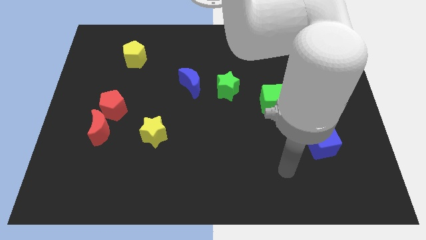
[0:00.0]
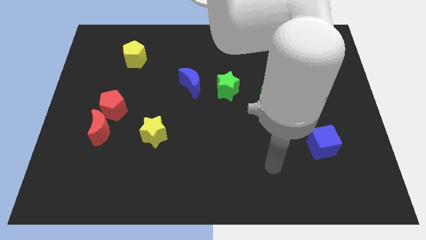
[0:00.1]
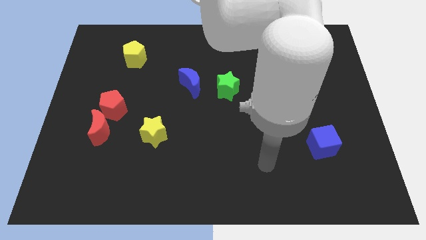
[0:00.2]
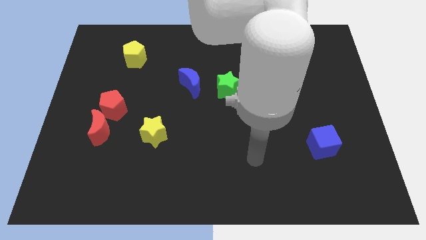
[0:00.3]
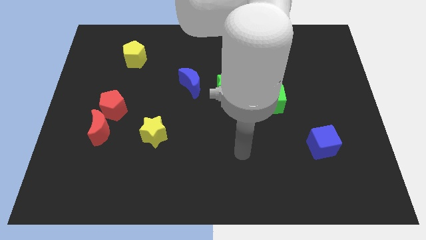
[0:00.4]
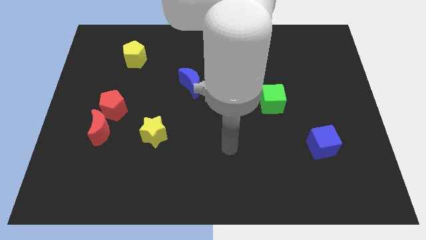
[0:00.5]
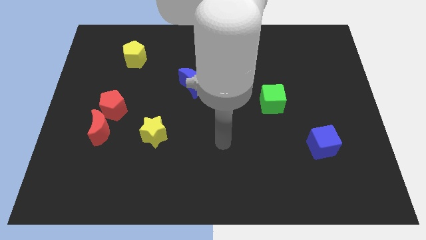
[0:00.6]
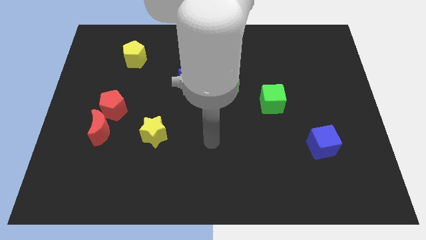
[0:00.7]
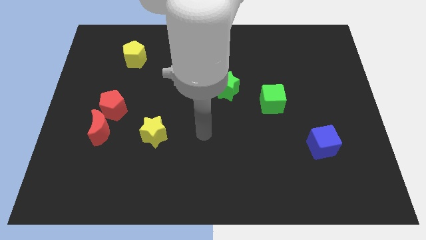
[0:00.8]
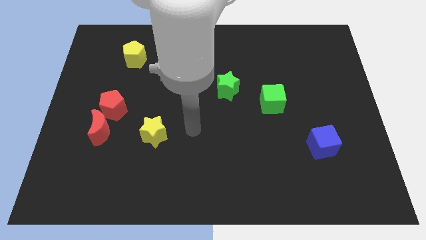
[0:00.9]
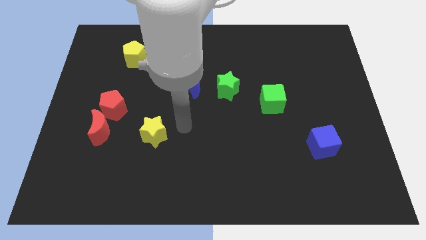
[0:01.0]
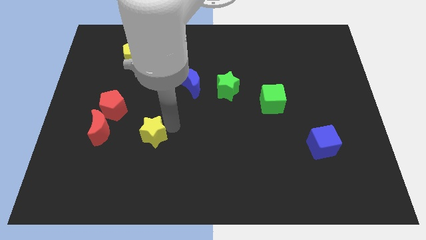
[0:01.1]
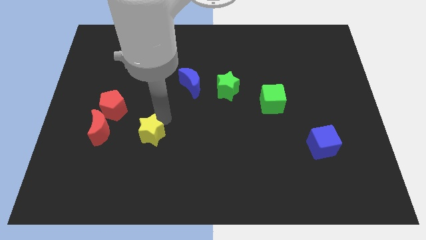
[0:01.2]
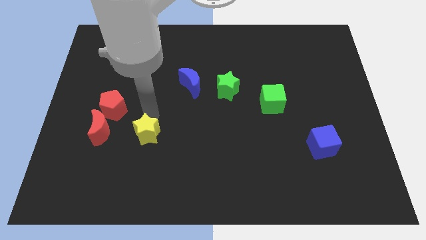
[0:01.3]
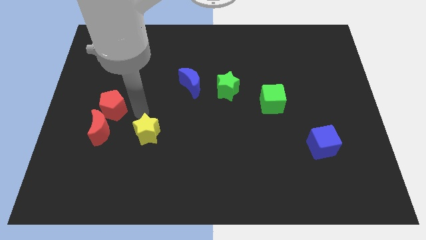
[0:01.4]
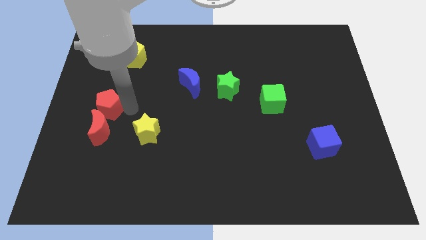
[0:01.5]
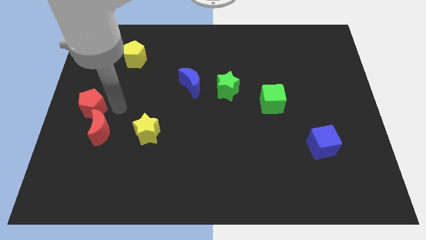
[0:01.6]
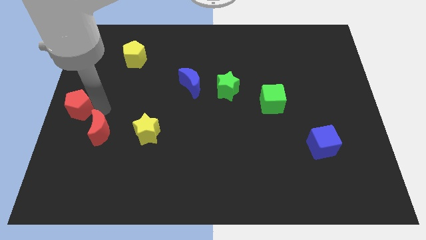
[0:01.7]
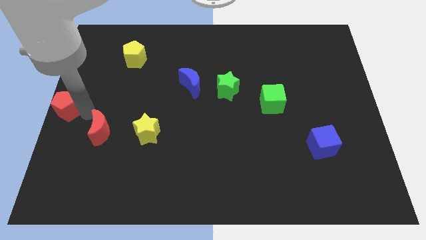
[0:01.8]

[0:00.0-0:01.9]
separate the red moon from the red pentagon

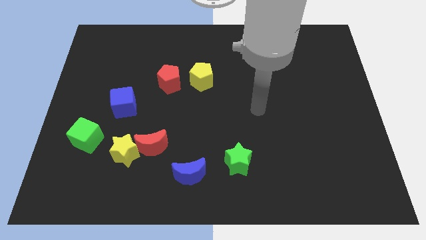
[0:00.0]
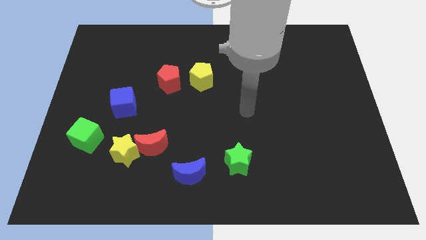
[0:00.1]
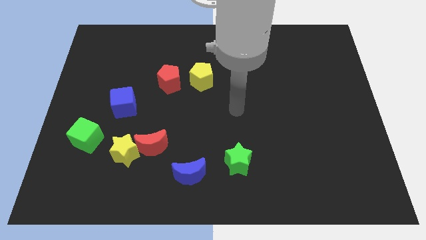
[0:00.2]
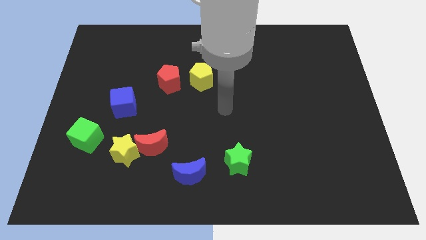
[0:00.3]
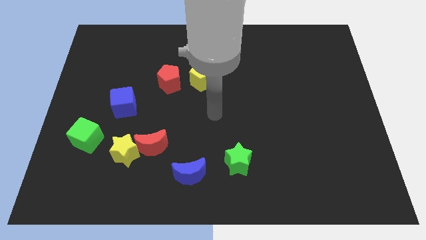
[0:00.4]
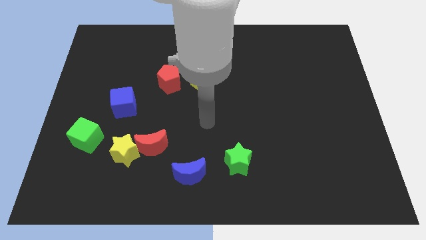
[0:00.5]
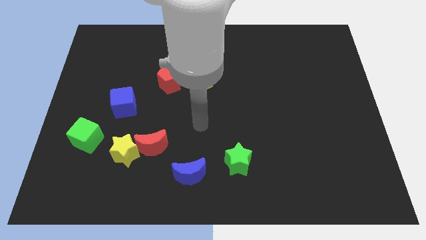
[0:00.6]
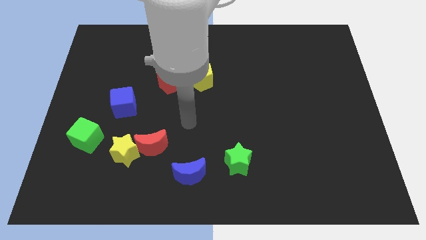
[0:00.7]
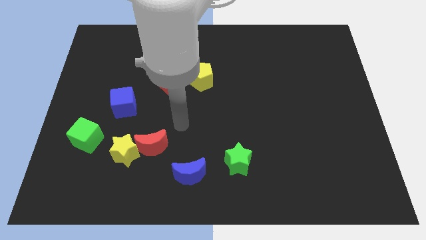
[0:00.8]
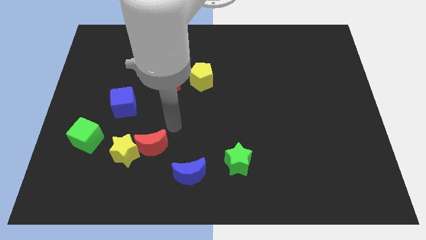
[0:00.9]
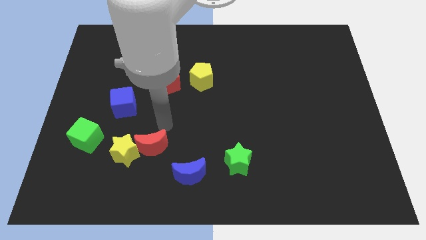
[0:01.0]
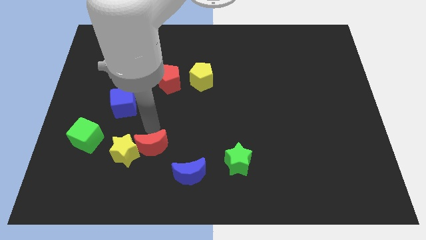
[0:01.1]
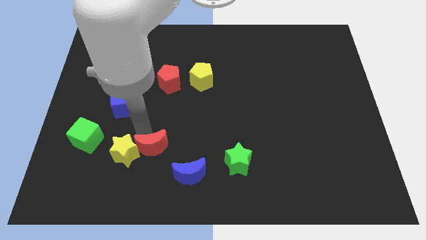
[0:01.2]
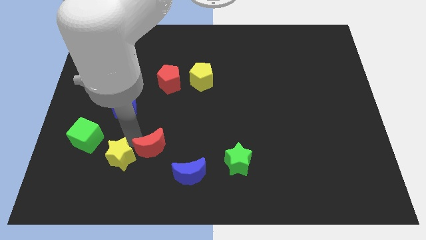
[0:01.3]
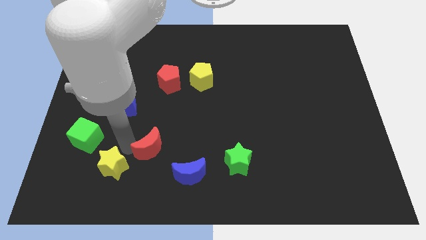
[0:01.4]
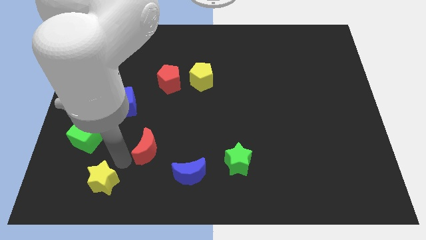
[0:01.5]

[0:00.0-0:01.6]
pull the red moon apart from the yellow star

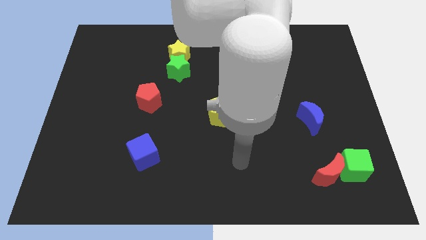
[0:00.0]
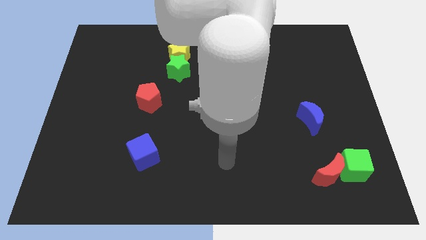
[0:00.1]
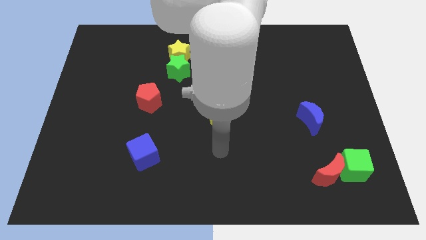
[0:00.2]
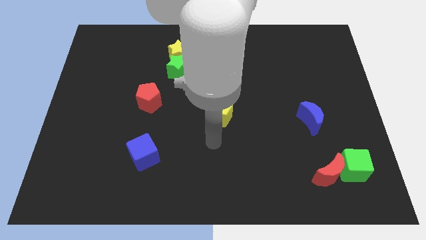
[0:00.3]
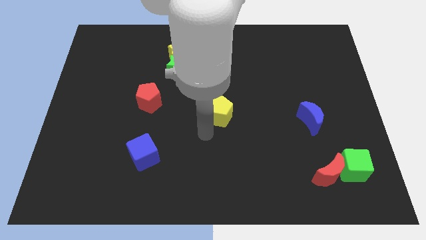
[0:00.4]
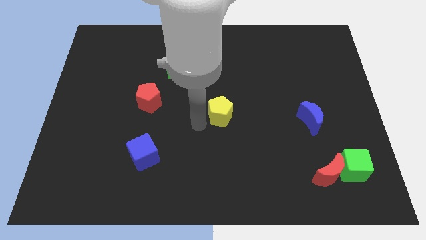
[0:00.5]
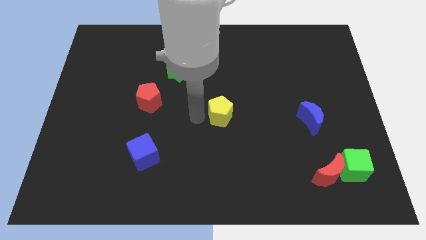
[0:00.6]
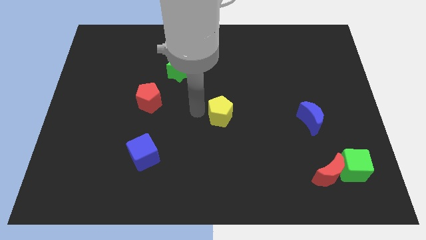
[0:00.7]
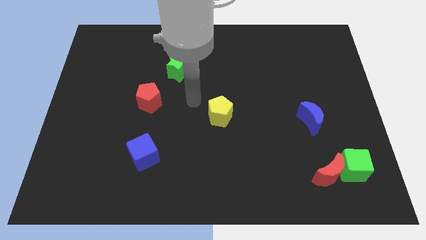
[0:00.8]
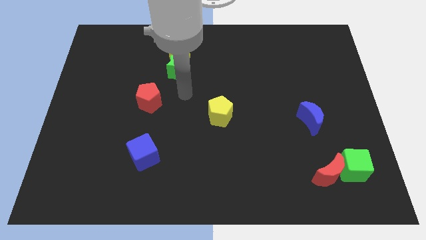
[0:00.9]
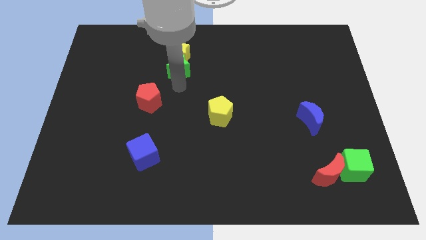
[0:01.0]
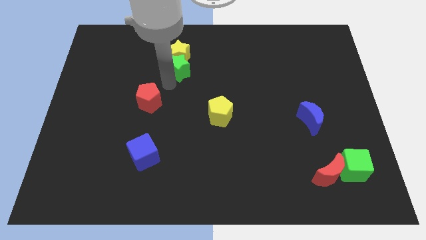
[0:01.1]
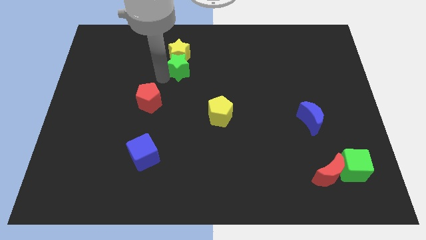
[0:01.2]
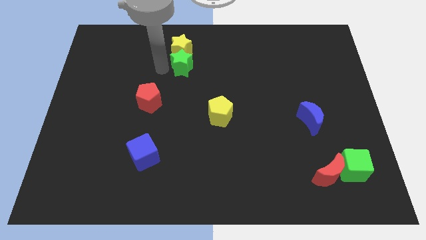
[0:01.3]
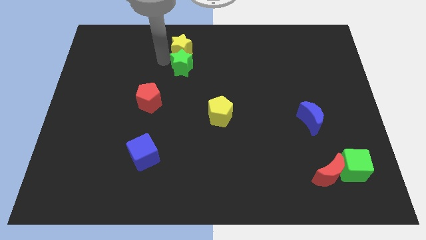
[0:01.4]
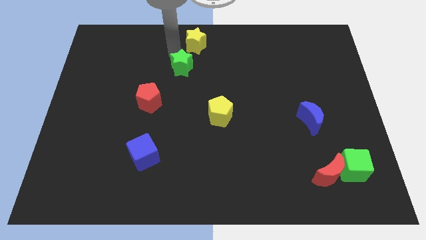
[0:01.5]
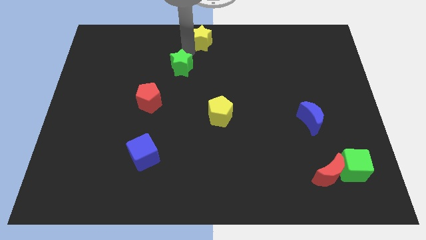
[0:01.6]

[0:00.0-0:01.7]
move the green star away from the yellow star

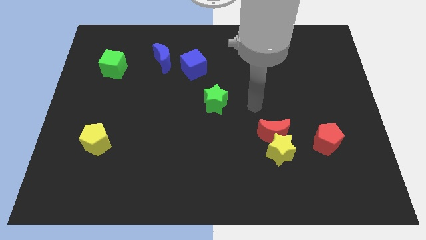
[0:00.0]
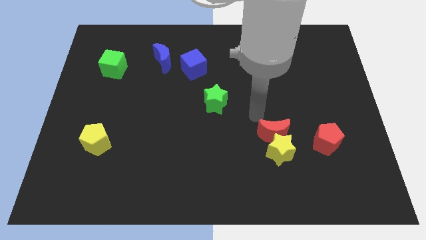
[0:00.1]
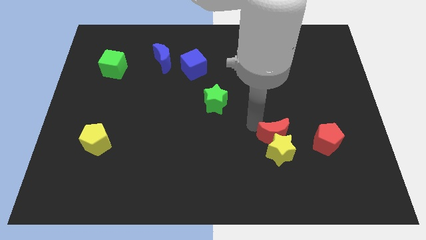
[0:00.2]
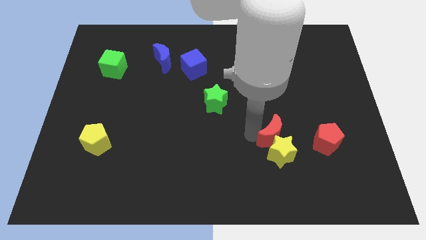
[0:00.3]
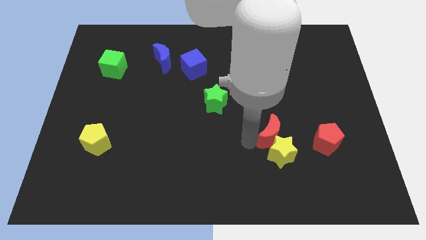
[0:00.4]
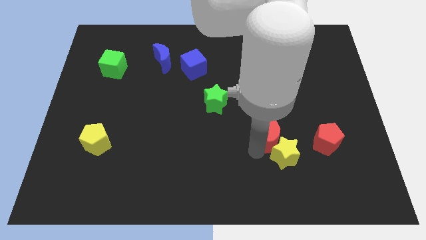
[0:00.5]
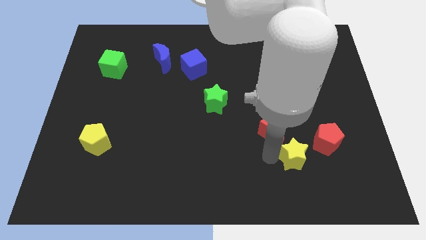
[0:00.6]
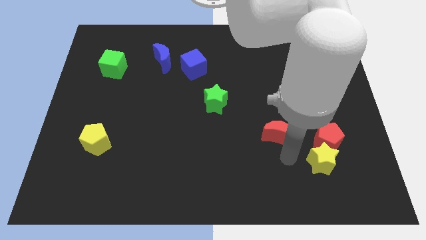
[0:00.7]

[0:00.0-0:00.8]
separate the red moon from the yellow star

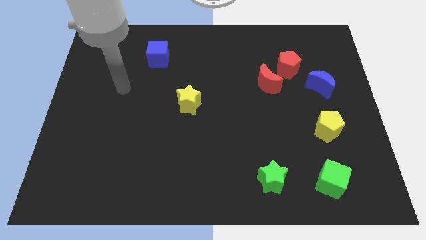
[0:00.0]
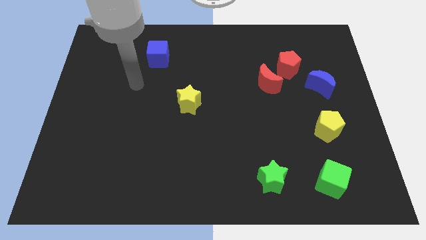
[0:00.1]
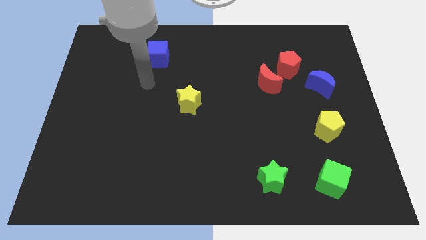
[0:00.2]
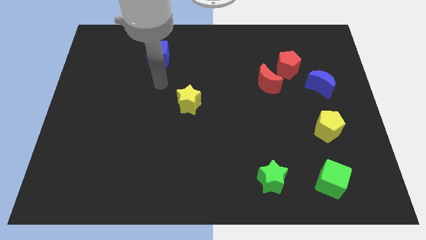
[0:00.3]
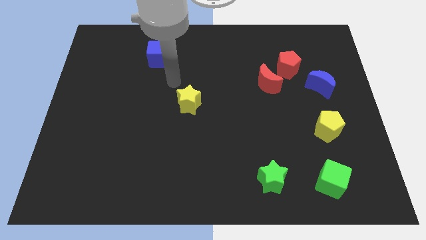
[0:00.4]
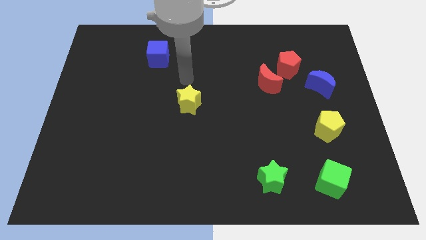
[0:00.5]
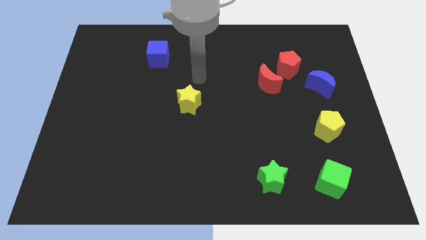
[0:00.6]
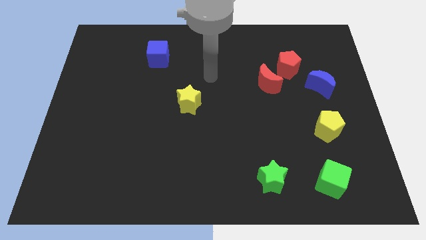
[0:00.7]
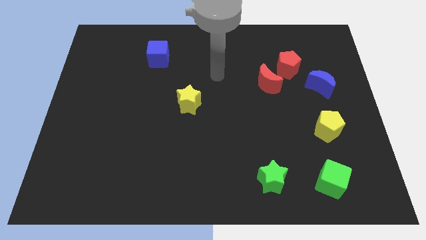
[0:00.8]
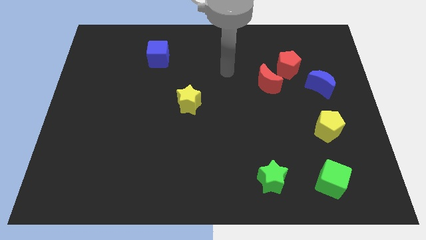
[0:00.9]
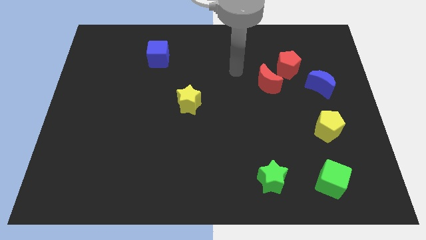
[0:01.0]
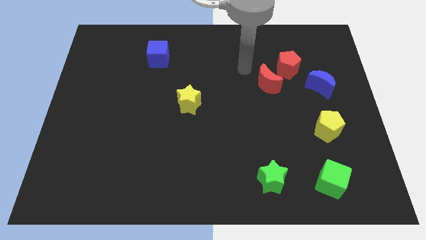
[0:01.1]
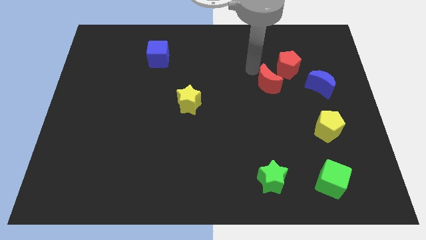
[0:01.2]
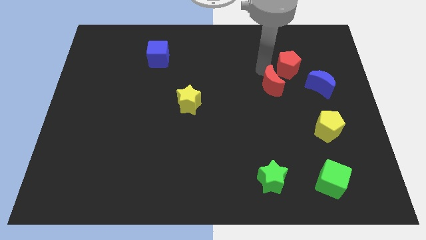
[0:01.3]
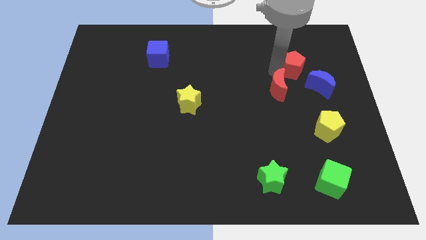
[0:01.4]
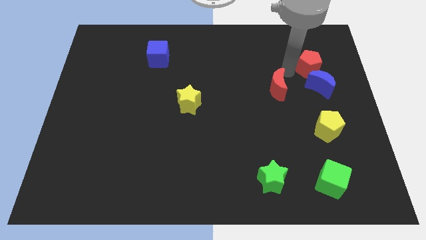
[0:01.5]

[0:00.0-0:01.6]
move the red moon away from the red pentagon

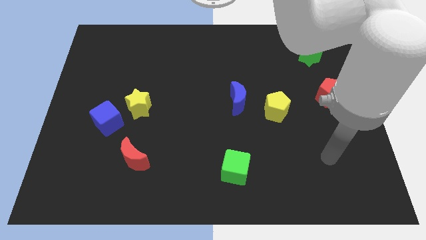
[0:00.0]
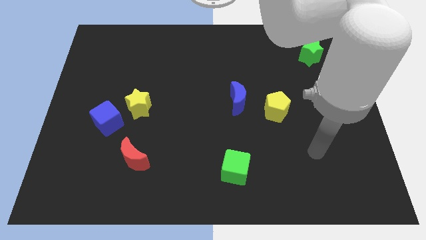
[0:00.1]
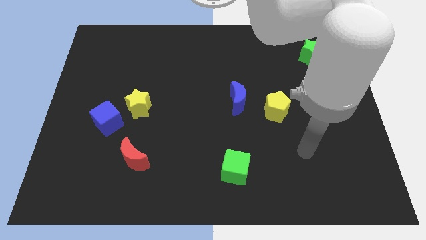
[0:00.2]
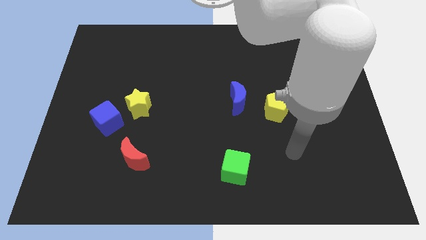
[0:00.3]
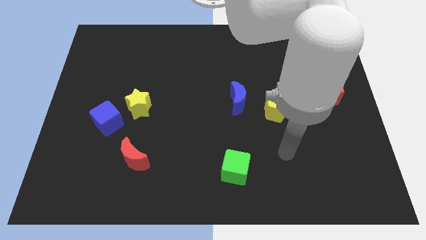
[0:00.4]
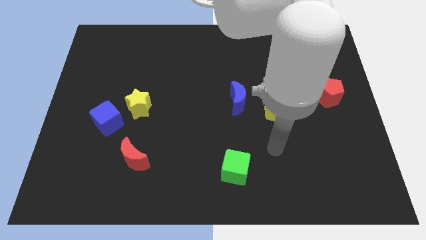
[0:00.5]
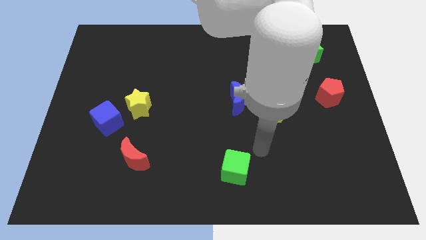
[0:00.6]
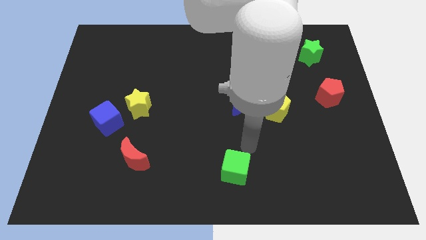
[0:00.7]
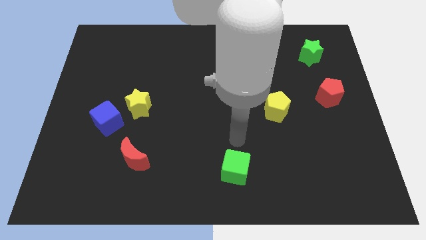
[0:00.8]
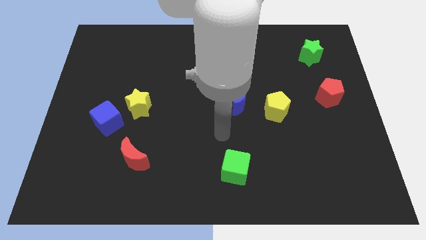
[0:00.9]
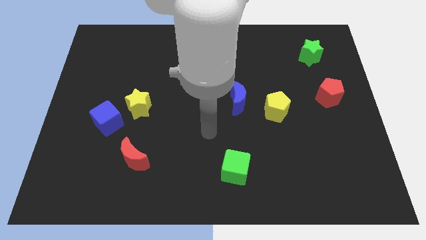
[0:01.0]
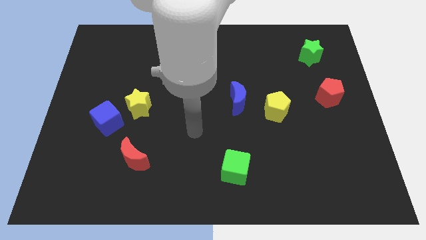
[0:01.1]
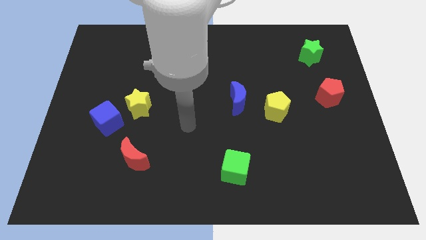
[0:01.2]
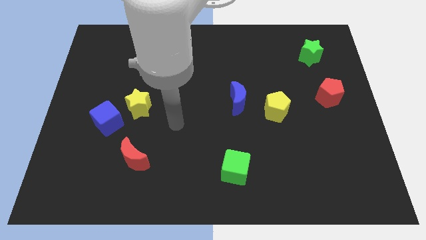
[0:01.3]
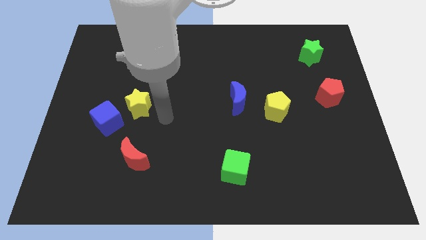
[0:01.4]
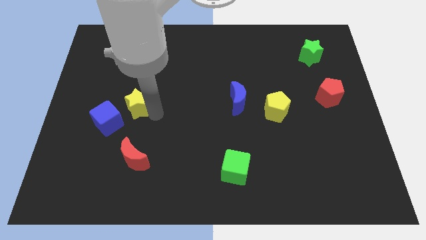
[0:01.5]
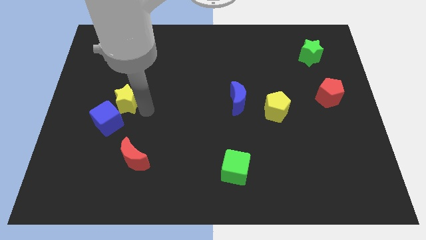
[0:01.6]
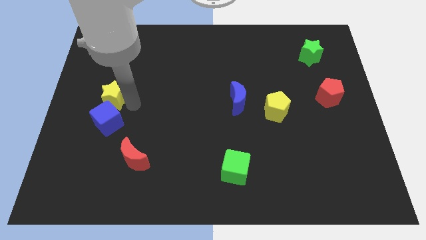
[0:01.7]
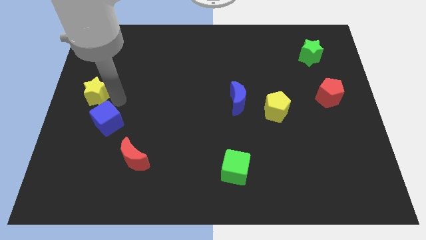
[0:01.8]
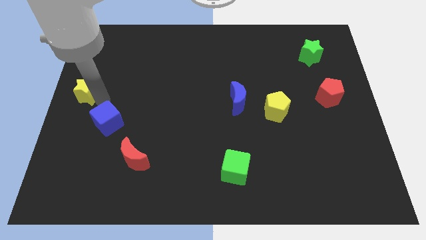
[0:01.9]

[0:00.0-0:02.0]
separate the blue cube from the yellow star
